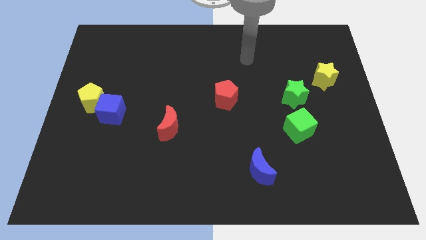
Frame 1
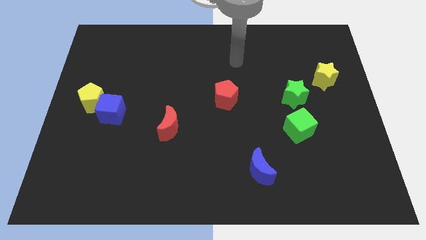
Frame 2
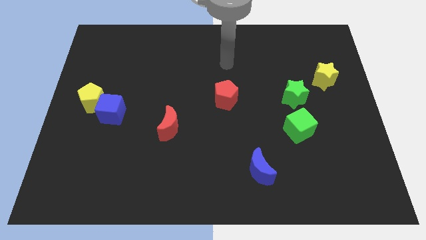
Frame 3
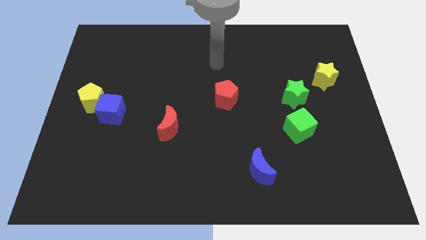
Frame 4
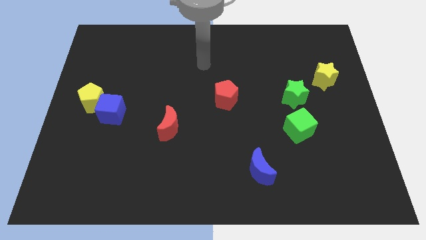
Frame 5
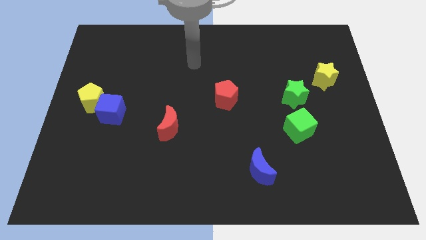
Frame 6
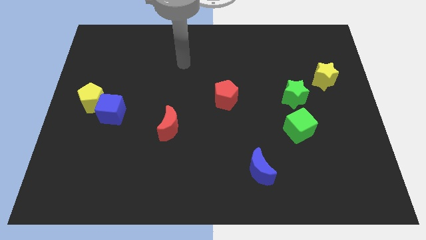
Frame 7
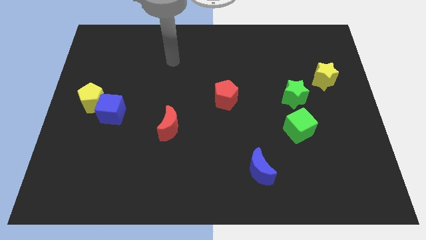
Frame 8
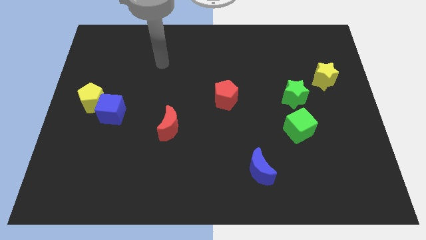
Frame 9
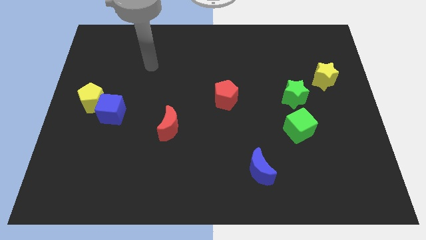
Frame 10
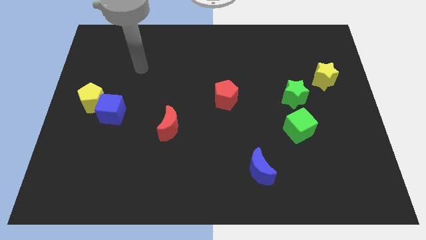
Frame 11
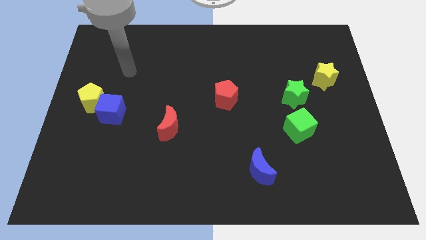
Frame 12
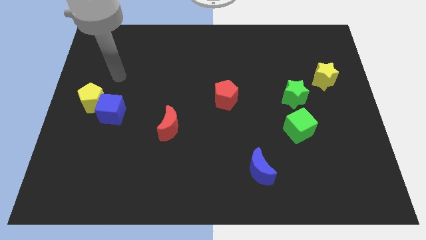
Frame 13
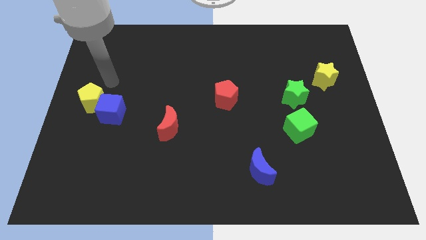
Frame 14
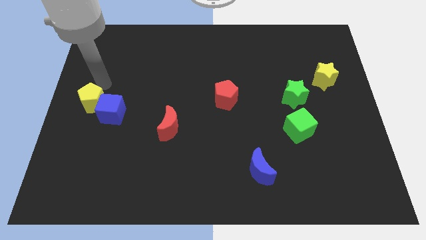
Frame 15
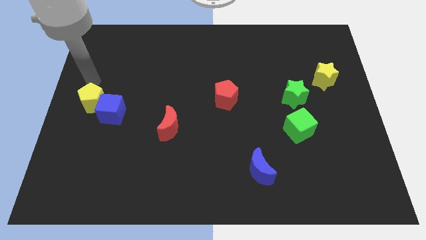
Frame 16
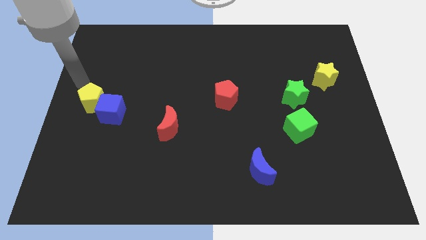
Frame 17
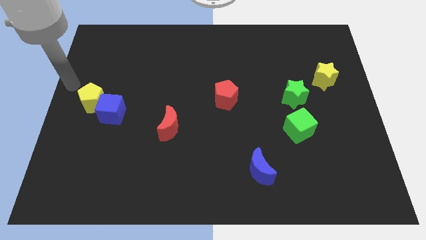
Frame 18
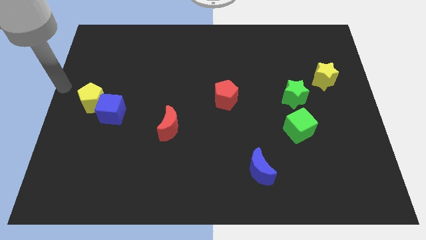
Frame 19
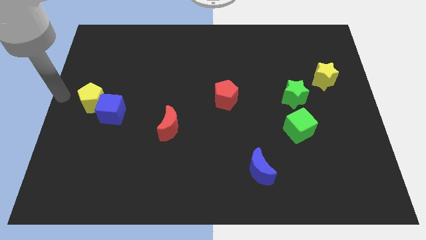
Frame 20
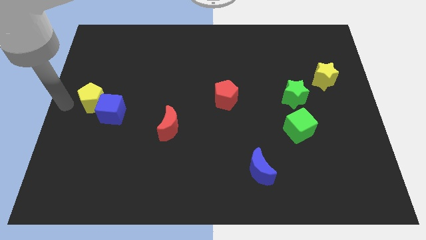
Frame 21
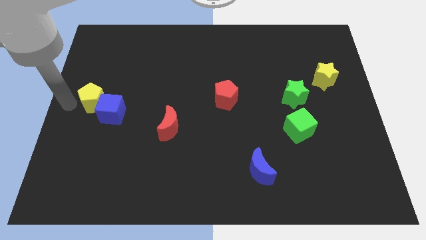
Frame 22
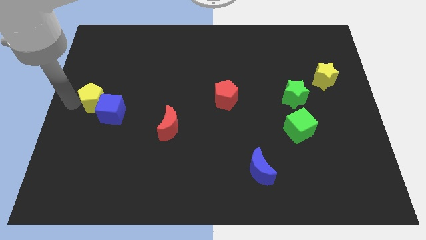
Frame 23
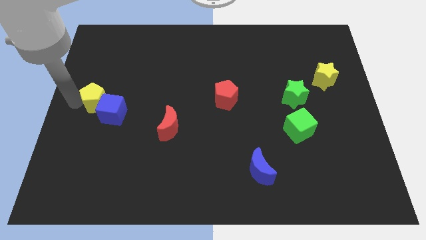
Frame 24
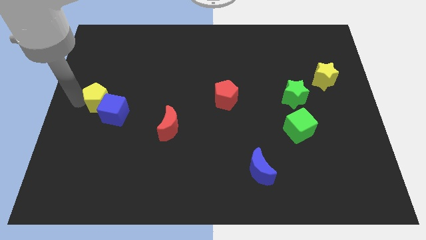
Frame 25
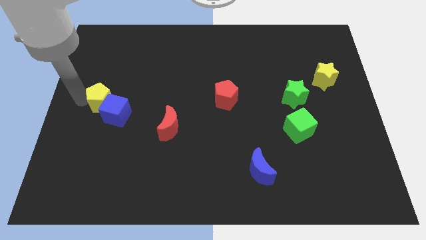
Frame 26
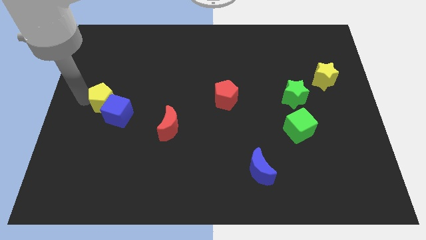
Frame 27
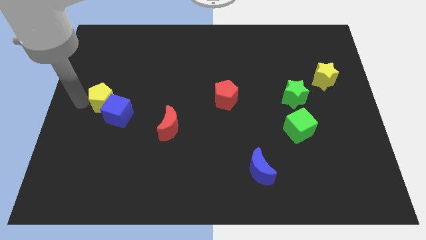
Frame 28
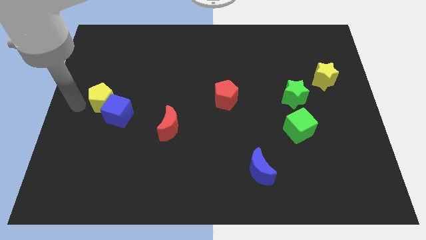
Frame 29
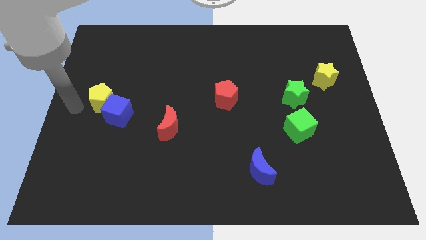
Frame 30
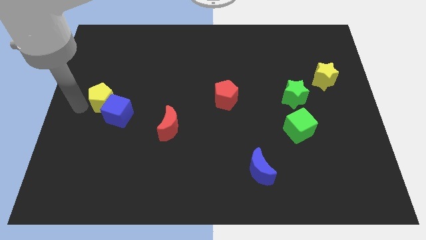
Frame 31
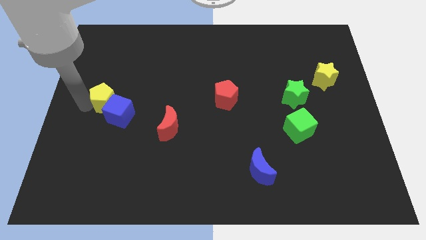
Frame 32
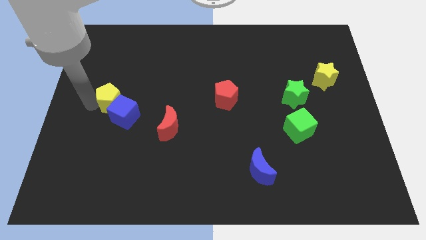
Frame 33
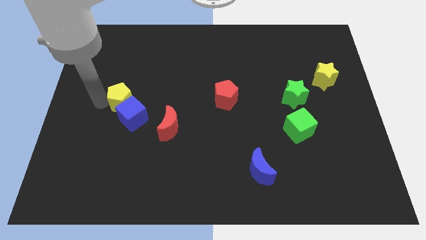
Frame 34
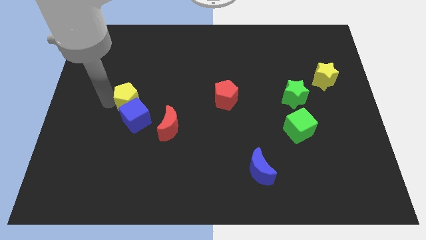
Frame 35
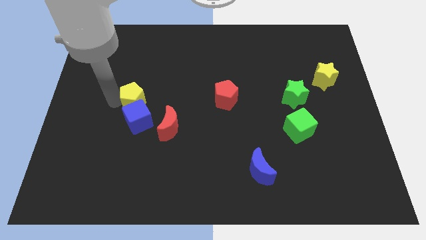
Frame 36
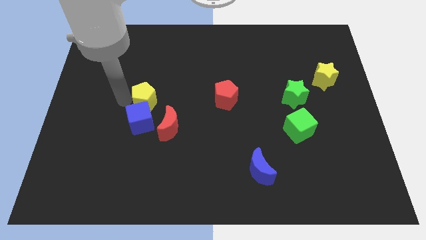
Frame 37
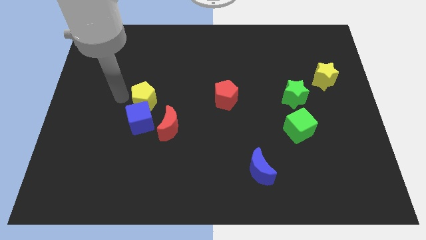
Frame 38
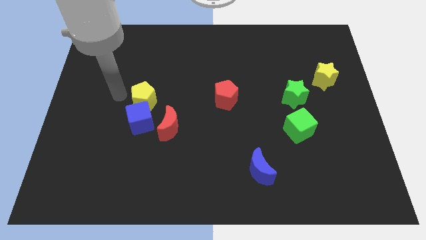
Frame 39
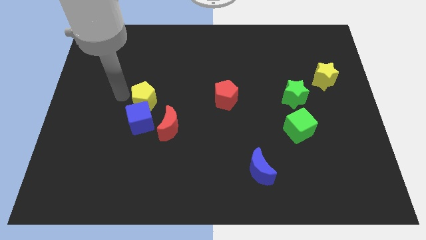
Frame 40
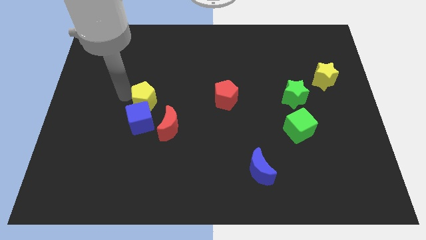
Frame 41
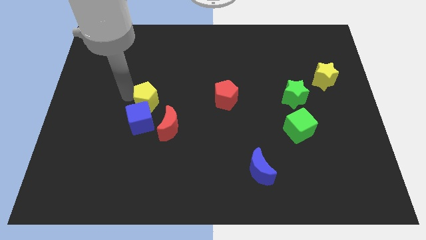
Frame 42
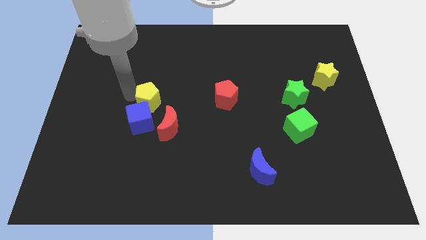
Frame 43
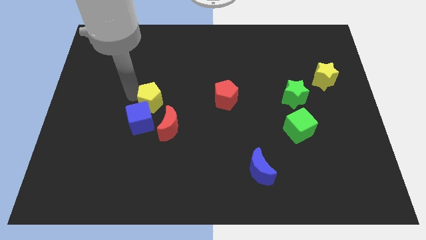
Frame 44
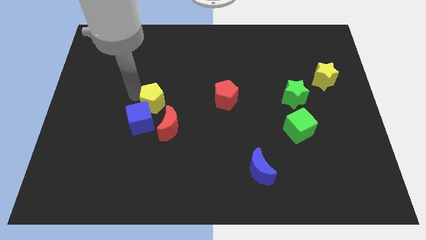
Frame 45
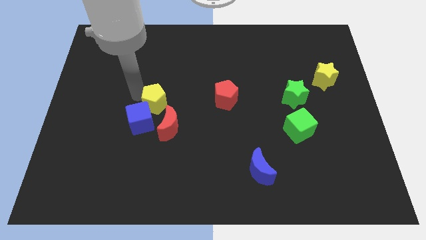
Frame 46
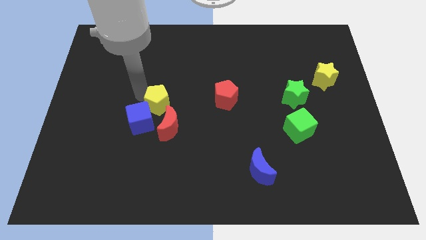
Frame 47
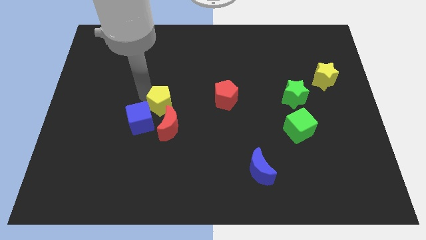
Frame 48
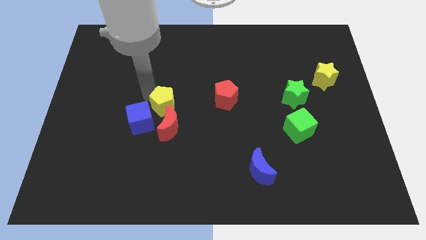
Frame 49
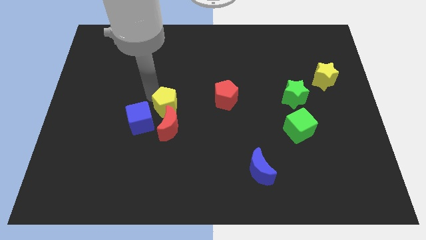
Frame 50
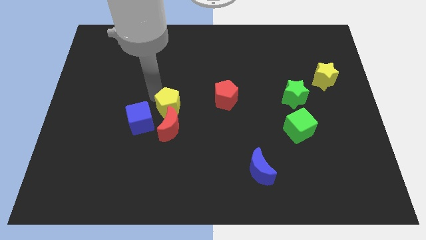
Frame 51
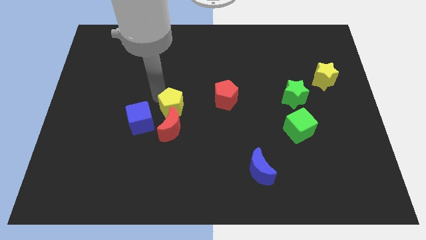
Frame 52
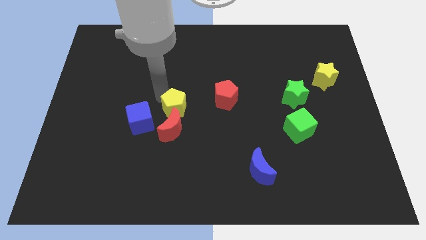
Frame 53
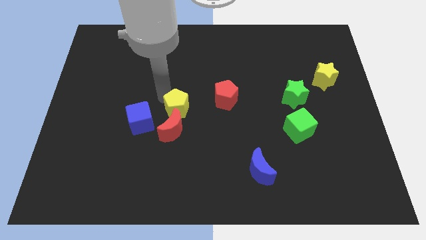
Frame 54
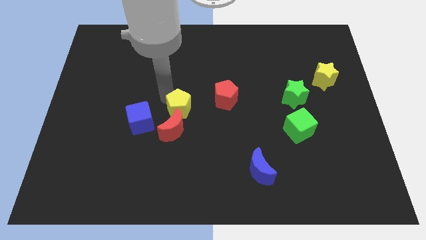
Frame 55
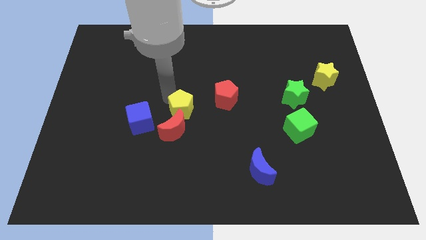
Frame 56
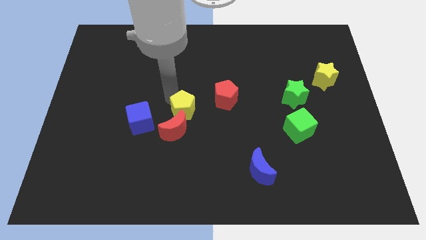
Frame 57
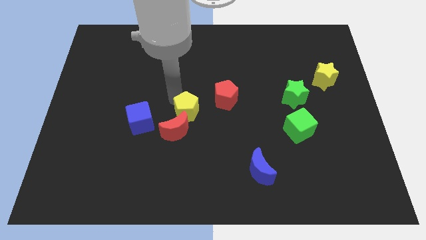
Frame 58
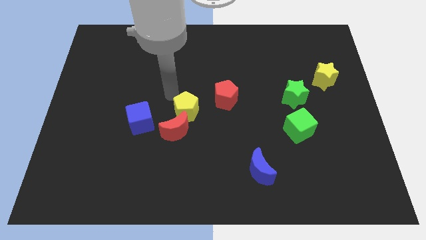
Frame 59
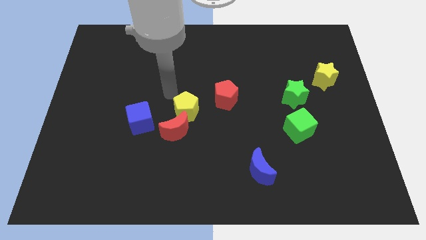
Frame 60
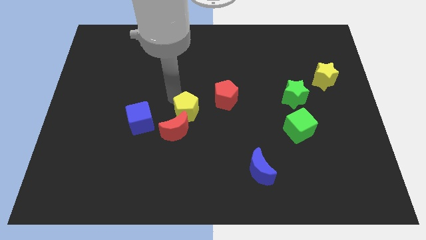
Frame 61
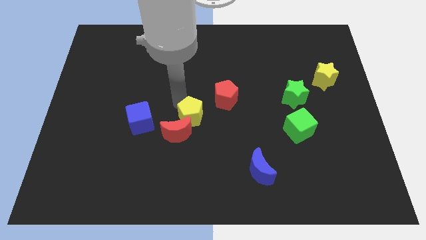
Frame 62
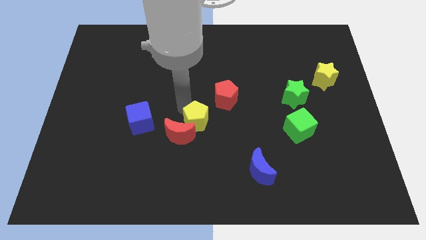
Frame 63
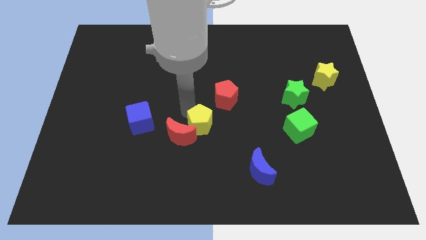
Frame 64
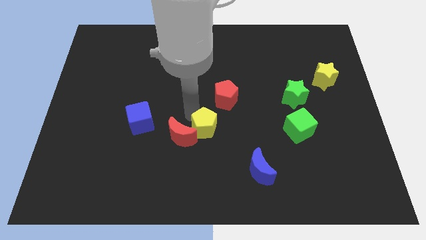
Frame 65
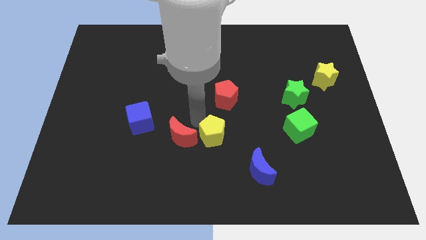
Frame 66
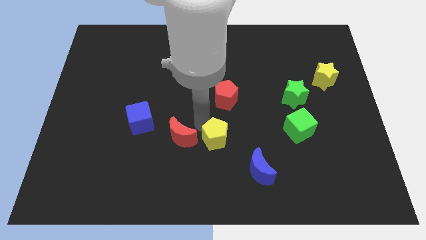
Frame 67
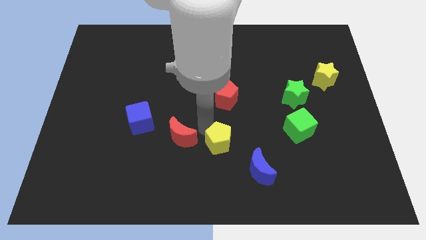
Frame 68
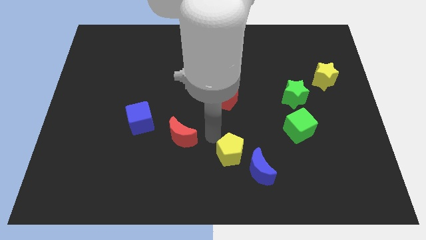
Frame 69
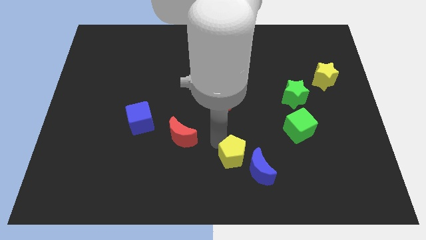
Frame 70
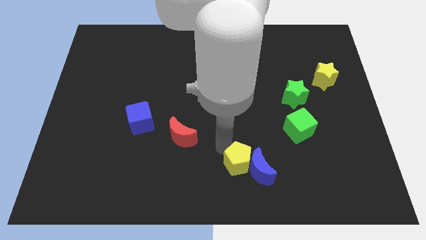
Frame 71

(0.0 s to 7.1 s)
put the yellow pentagon to the blue moon
